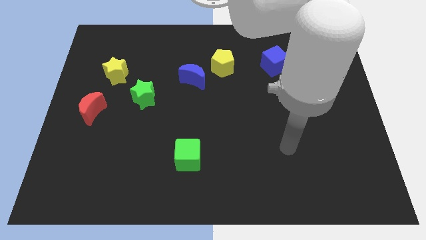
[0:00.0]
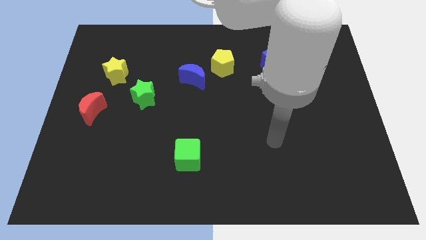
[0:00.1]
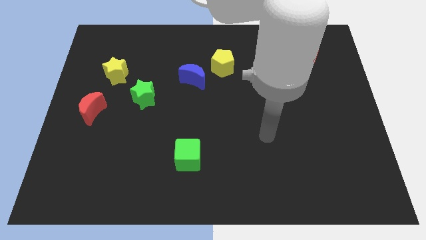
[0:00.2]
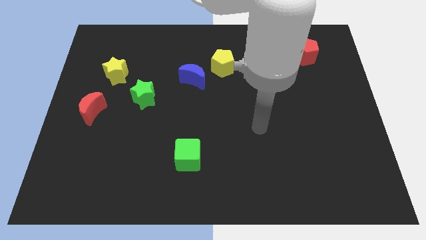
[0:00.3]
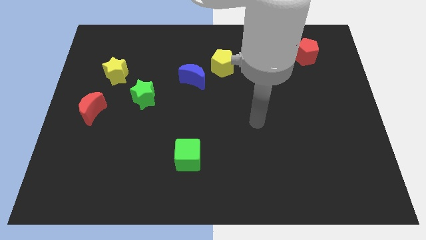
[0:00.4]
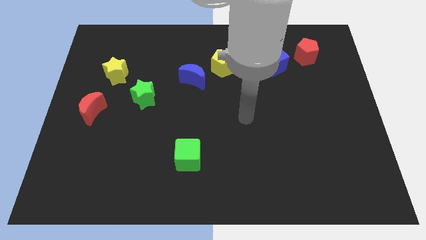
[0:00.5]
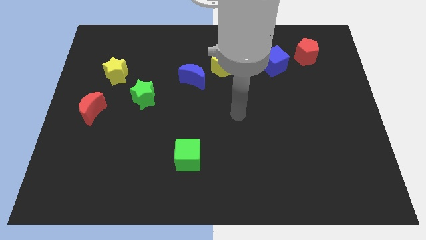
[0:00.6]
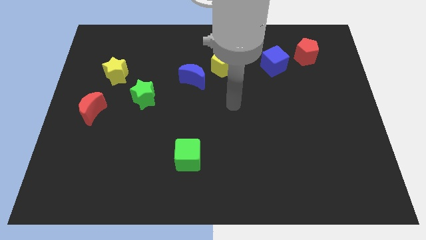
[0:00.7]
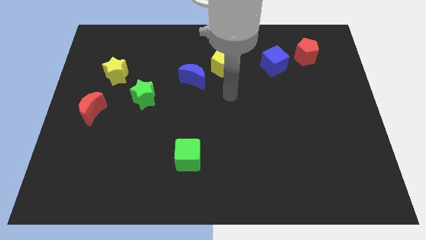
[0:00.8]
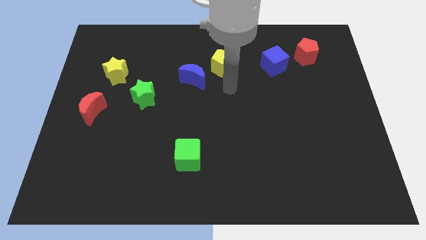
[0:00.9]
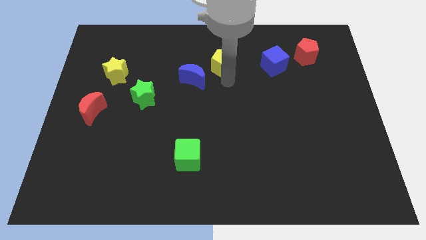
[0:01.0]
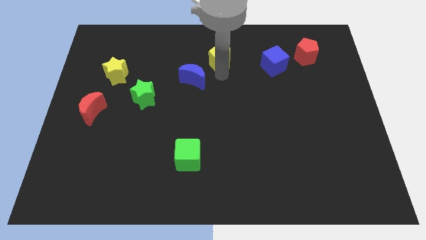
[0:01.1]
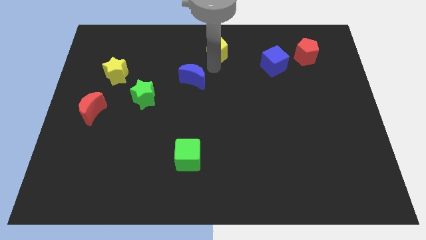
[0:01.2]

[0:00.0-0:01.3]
pull the blue moon apart from the yellow pentagon

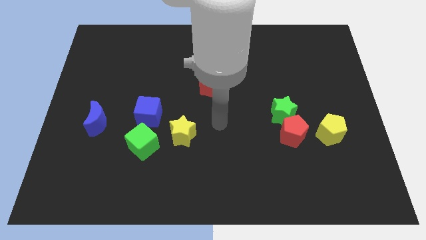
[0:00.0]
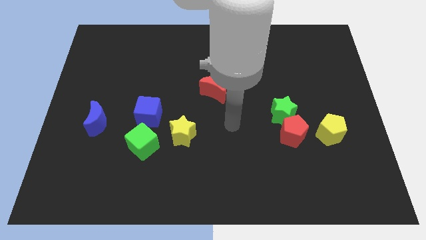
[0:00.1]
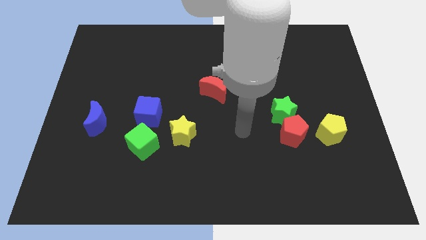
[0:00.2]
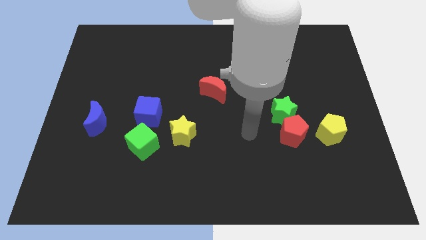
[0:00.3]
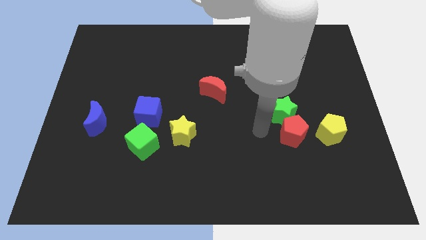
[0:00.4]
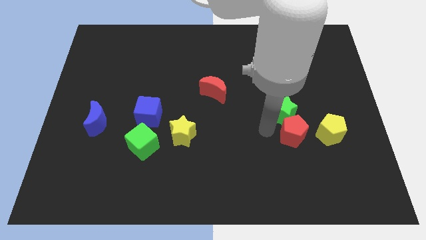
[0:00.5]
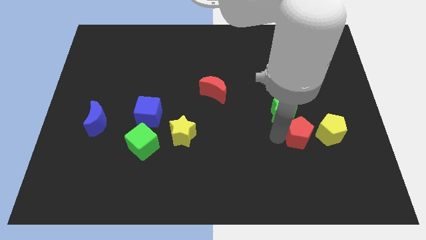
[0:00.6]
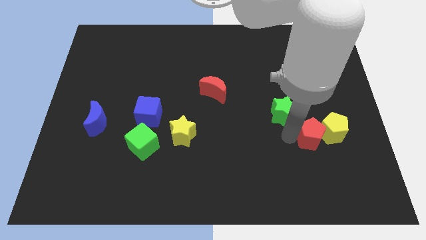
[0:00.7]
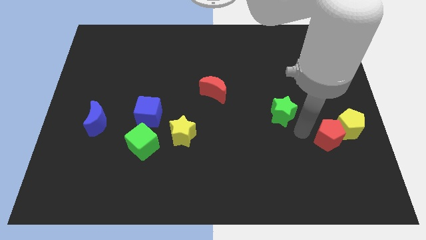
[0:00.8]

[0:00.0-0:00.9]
pull the green star apart from the red pentagon

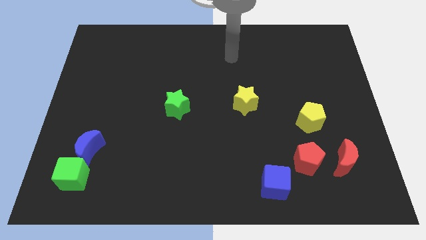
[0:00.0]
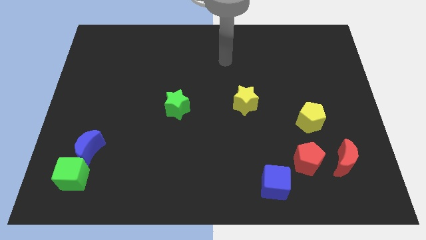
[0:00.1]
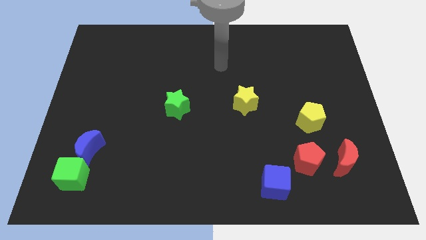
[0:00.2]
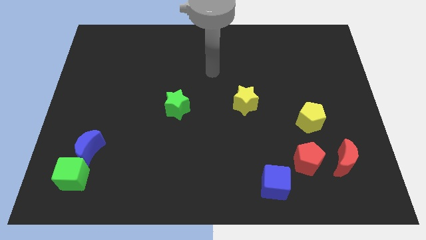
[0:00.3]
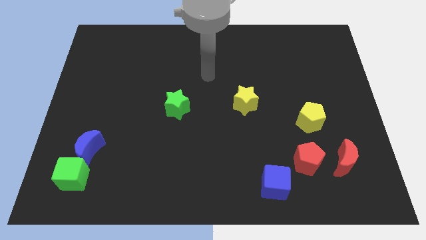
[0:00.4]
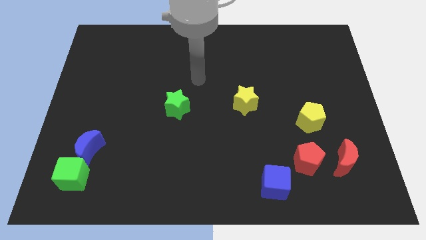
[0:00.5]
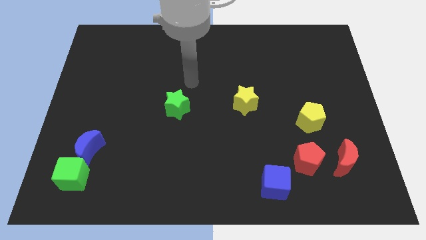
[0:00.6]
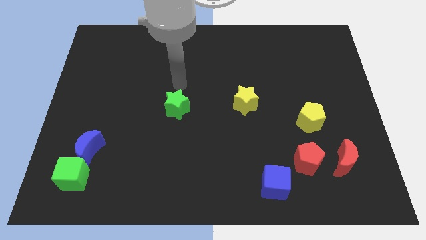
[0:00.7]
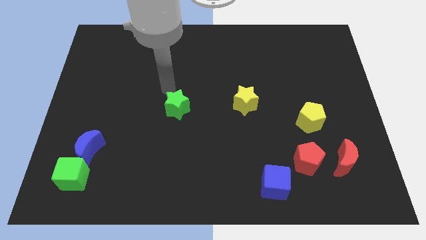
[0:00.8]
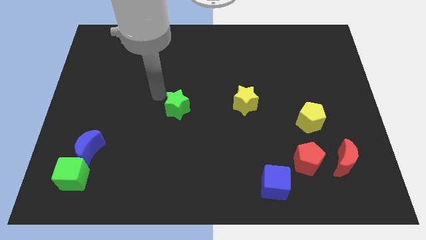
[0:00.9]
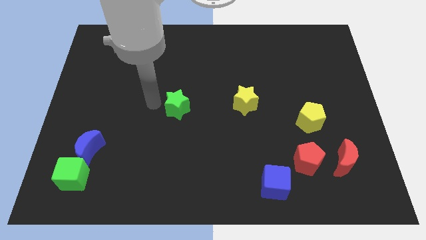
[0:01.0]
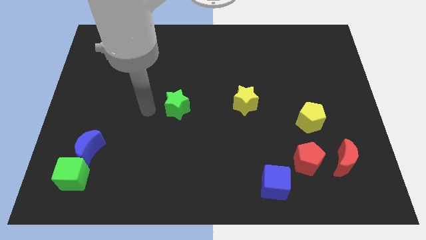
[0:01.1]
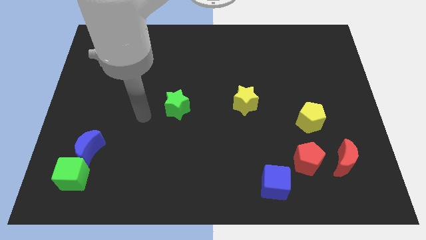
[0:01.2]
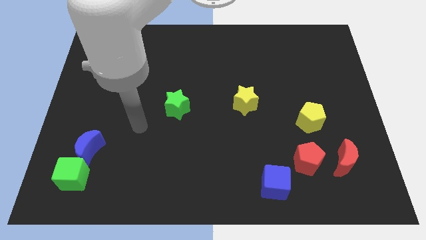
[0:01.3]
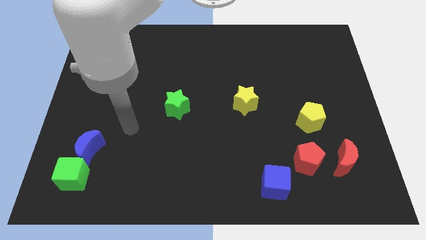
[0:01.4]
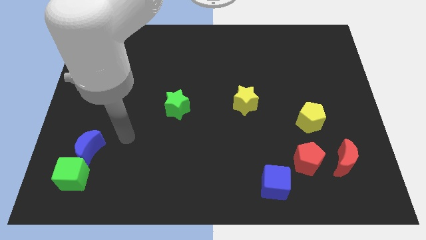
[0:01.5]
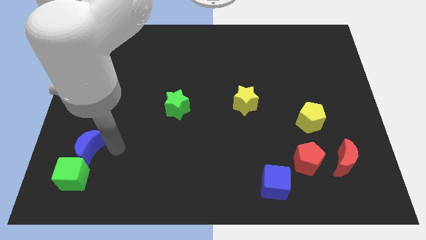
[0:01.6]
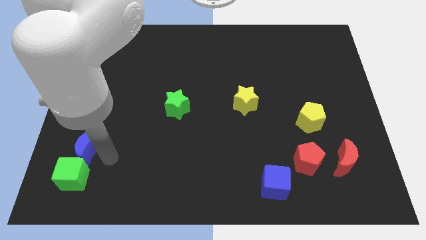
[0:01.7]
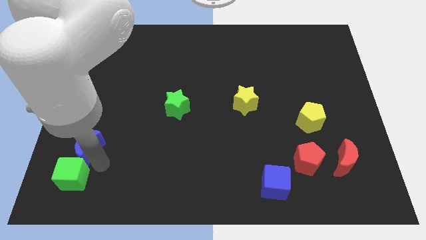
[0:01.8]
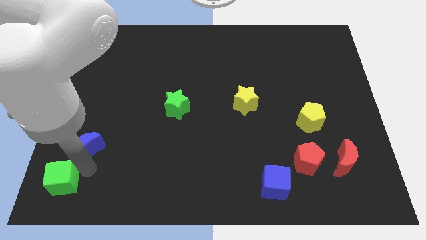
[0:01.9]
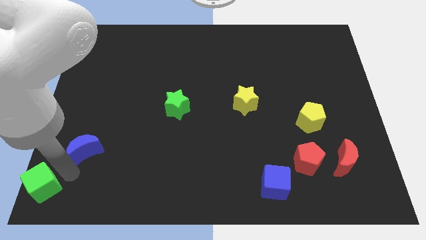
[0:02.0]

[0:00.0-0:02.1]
separate the blue moon from the green cube

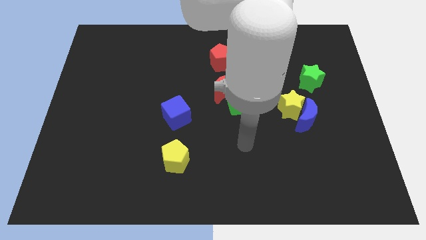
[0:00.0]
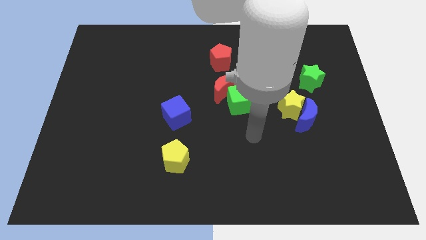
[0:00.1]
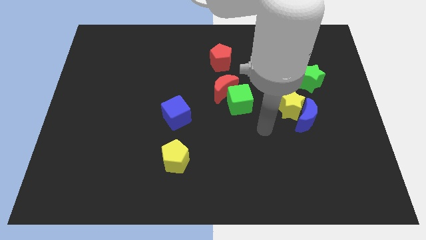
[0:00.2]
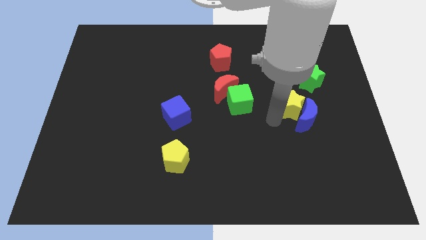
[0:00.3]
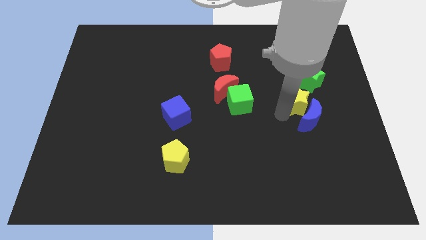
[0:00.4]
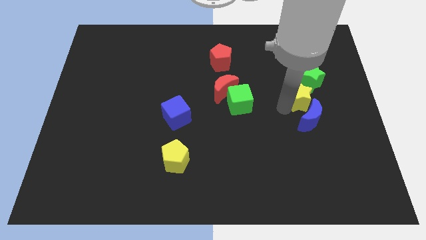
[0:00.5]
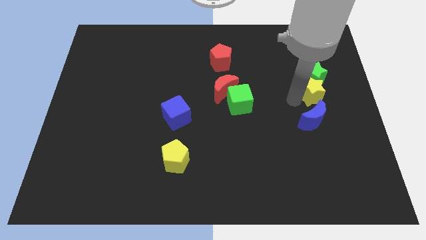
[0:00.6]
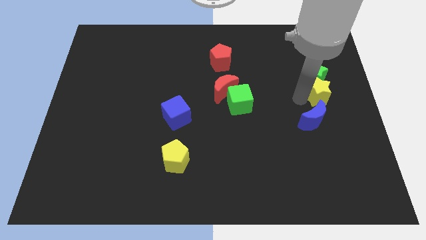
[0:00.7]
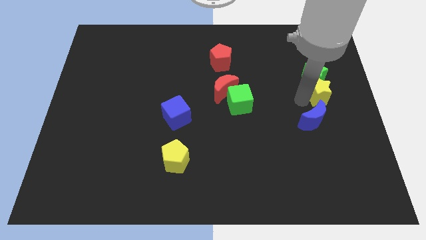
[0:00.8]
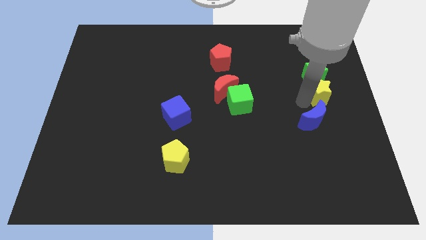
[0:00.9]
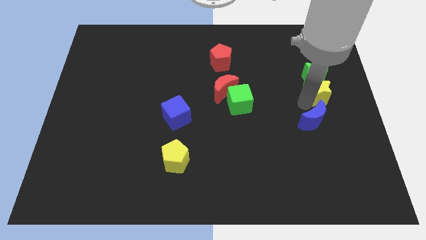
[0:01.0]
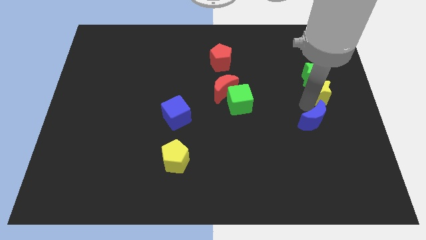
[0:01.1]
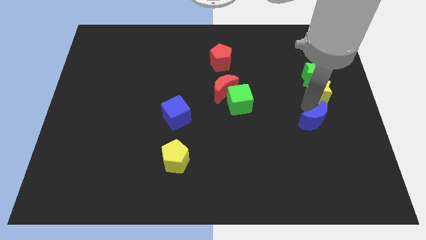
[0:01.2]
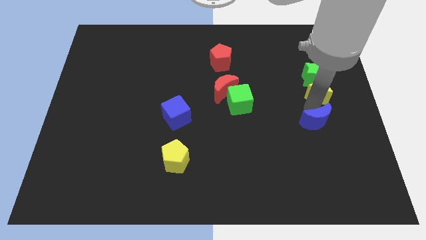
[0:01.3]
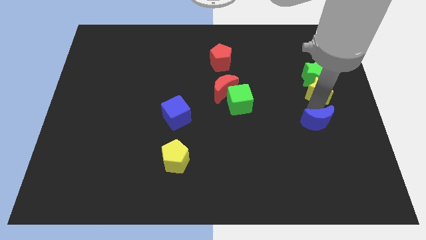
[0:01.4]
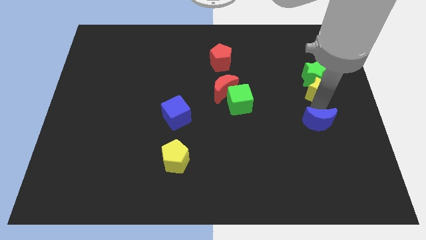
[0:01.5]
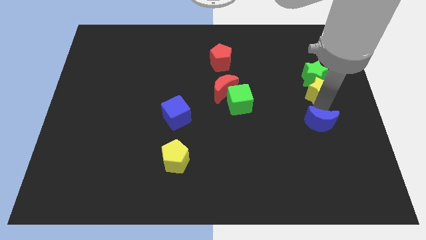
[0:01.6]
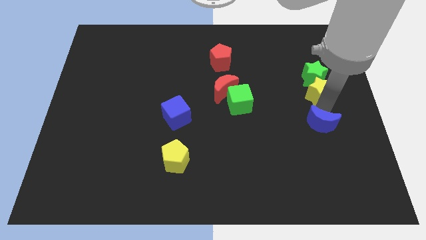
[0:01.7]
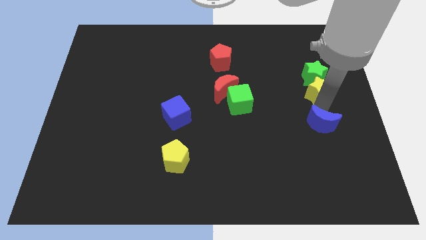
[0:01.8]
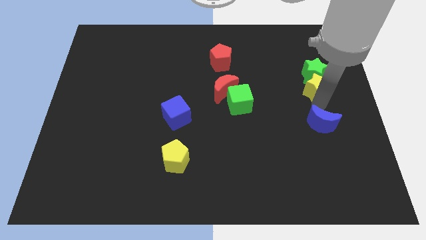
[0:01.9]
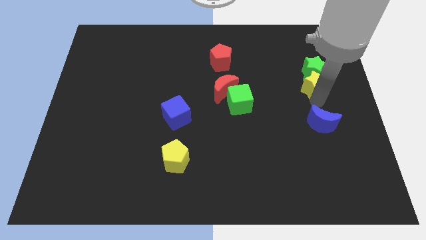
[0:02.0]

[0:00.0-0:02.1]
move the blue moon away from the yellow star

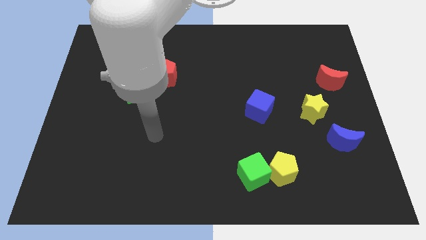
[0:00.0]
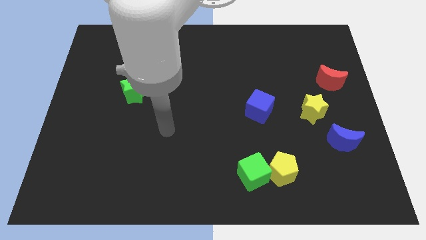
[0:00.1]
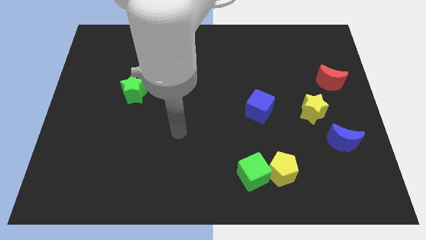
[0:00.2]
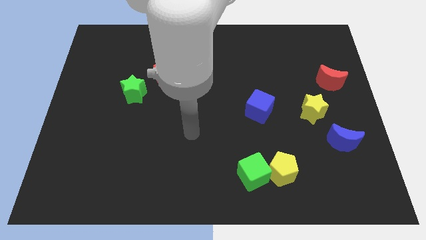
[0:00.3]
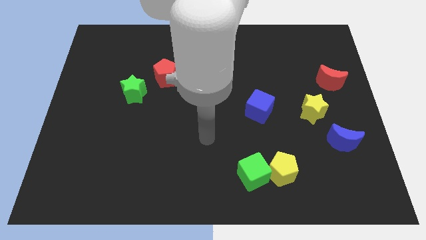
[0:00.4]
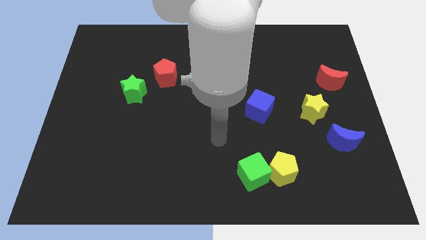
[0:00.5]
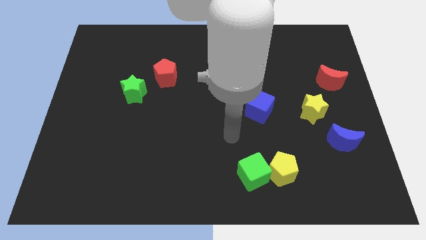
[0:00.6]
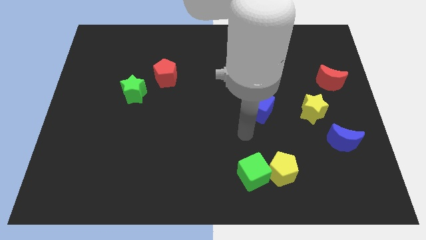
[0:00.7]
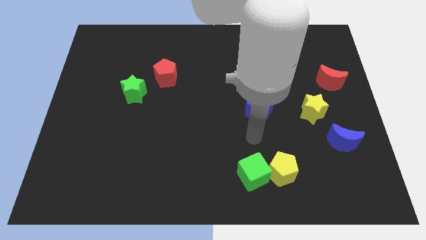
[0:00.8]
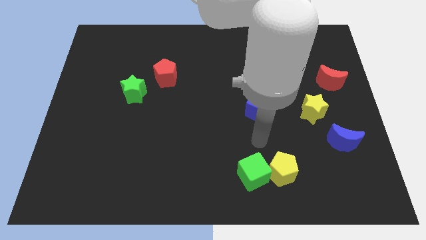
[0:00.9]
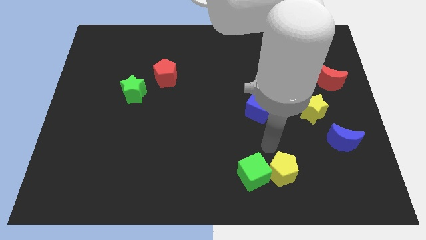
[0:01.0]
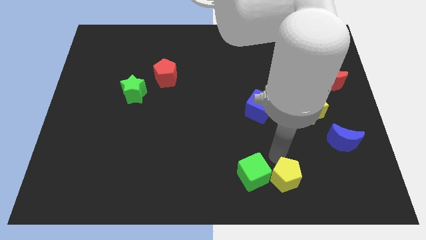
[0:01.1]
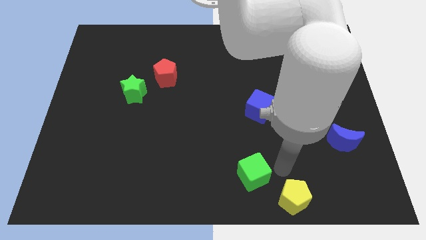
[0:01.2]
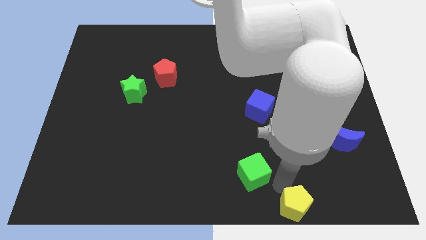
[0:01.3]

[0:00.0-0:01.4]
move the green cube away from the yellow pentagon

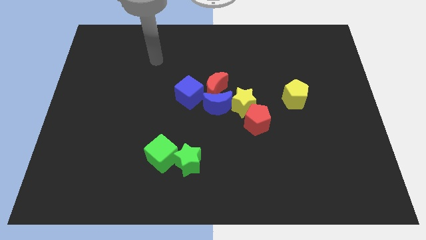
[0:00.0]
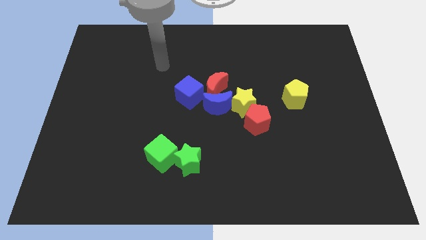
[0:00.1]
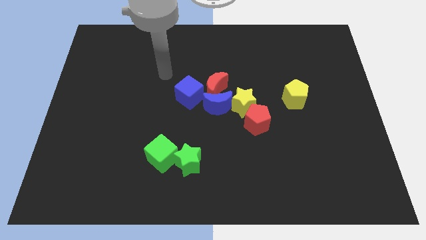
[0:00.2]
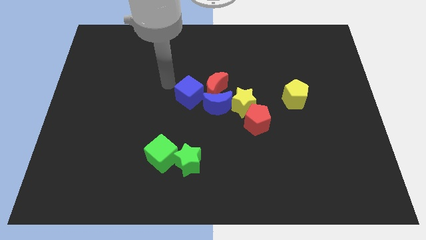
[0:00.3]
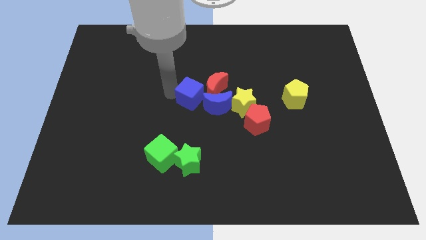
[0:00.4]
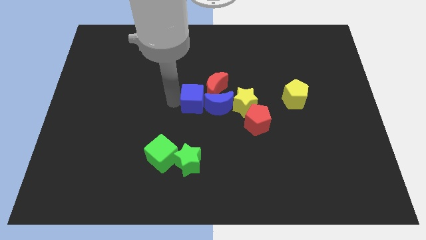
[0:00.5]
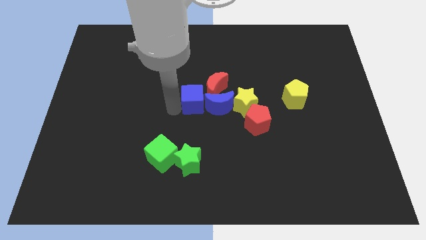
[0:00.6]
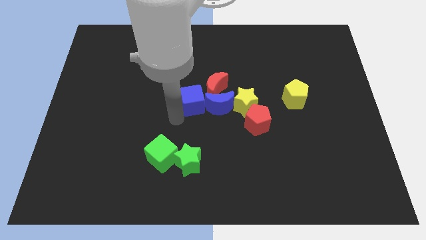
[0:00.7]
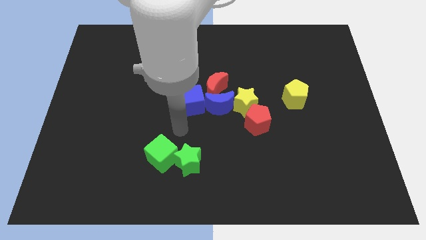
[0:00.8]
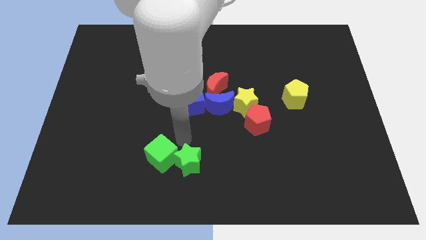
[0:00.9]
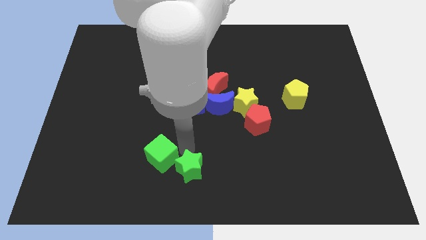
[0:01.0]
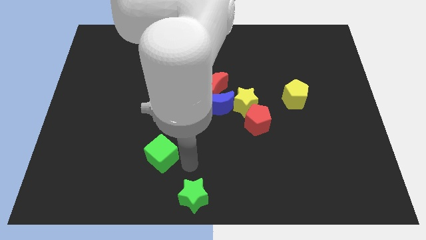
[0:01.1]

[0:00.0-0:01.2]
move the green cube away from the green star

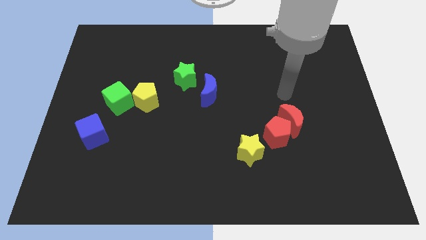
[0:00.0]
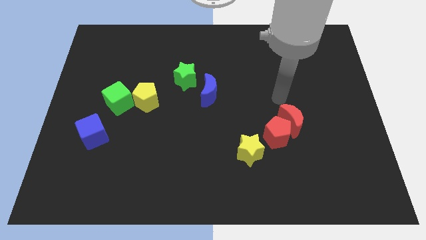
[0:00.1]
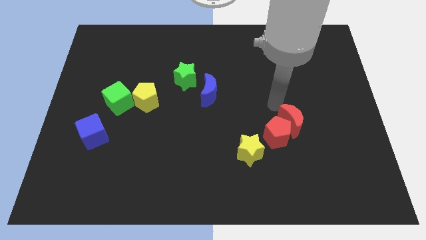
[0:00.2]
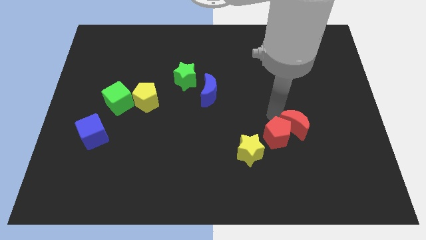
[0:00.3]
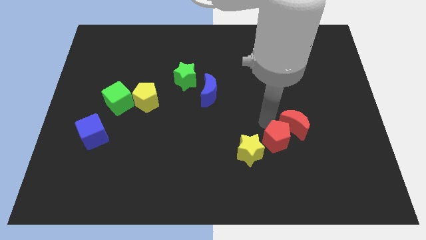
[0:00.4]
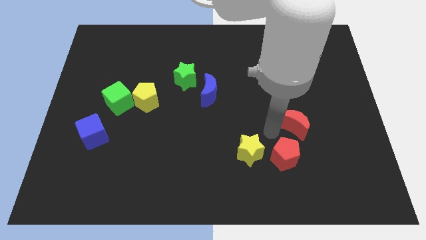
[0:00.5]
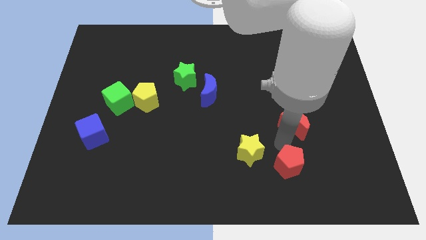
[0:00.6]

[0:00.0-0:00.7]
separate the red moon from the red pentagon
